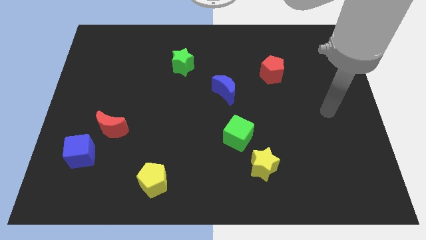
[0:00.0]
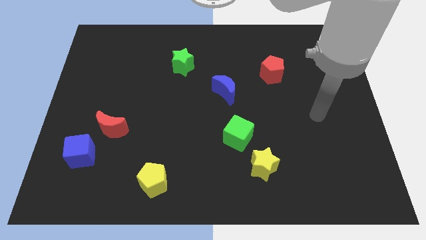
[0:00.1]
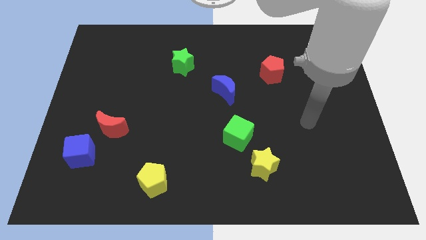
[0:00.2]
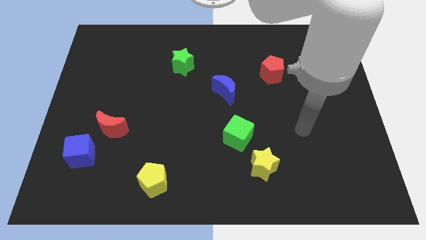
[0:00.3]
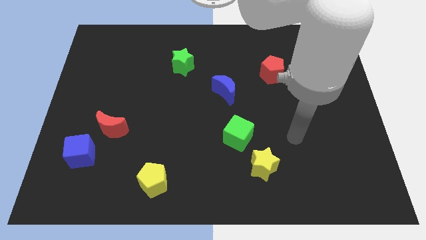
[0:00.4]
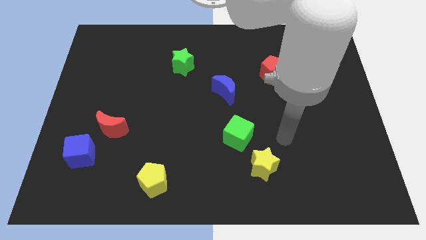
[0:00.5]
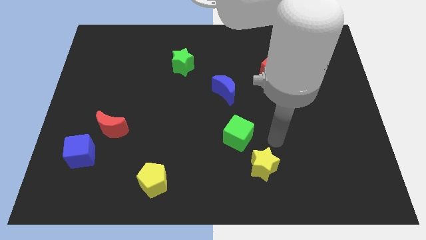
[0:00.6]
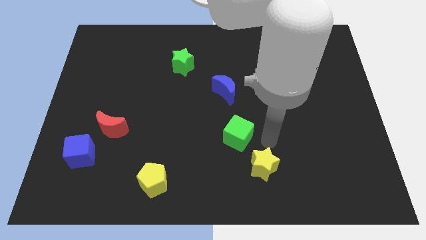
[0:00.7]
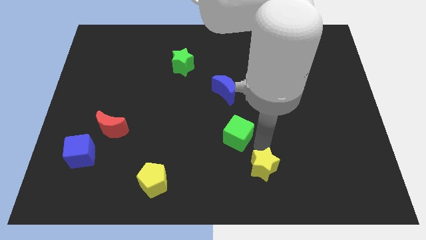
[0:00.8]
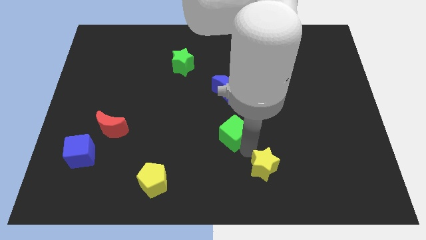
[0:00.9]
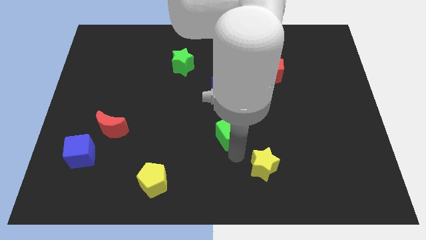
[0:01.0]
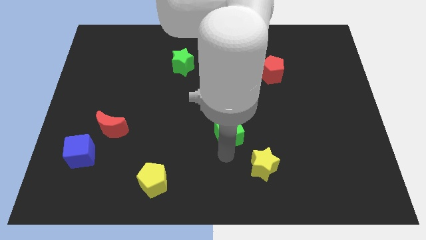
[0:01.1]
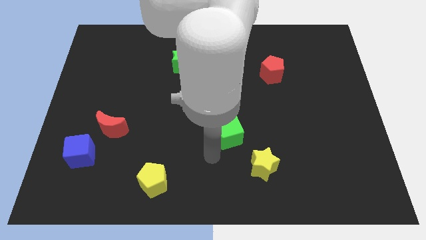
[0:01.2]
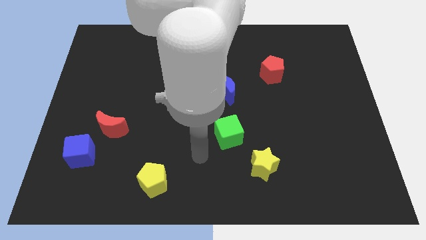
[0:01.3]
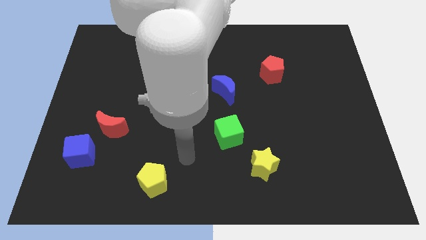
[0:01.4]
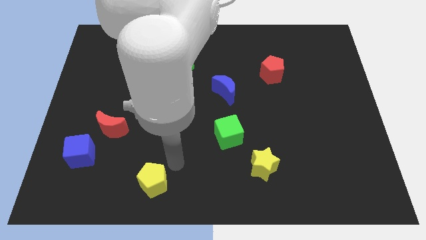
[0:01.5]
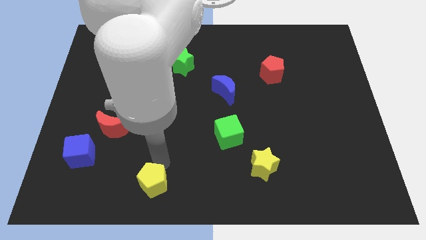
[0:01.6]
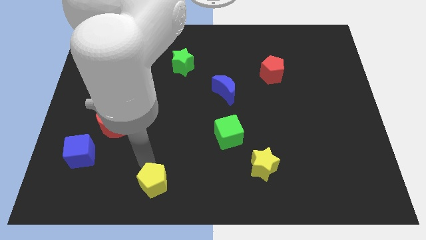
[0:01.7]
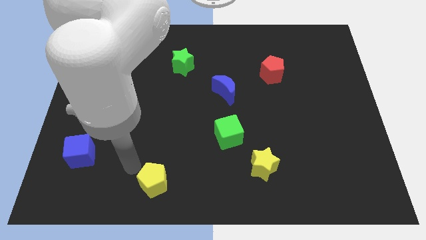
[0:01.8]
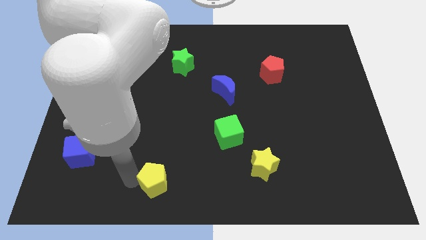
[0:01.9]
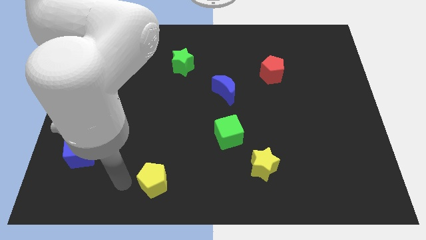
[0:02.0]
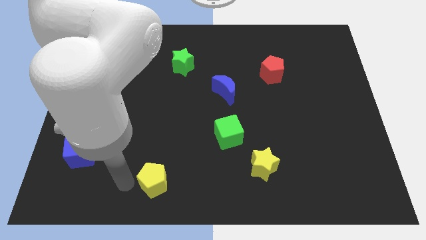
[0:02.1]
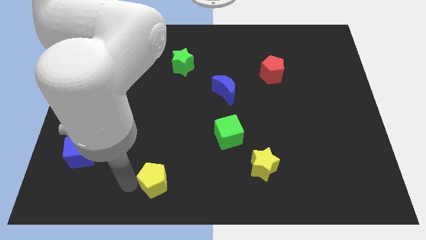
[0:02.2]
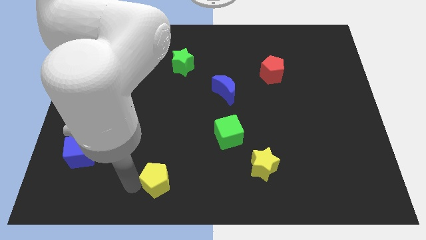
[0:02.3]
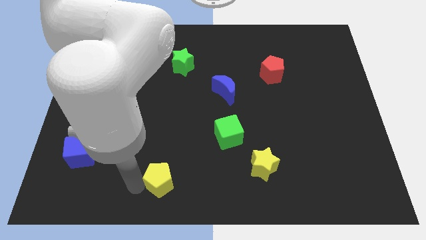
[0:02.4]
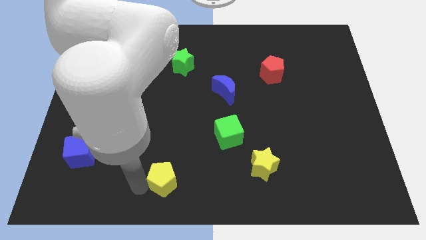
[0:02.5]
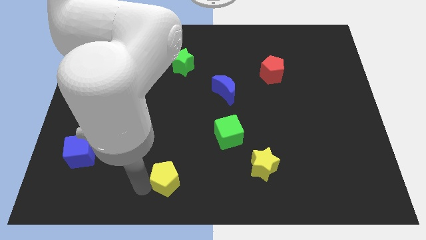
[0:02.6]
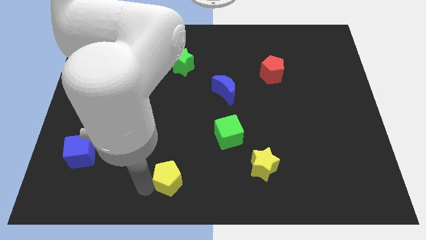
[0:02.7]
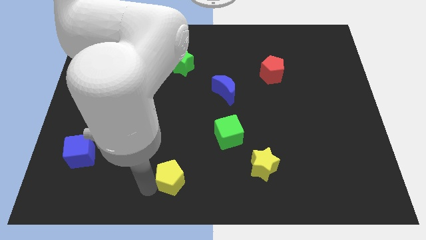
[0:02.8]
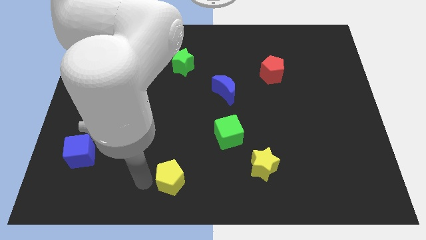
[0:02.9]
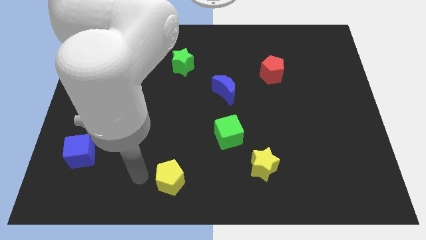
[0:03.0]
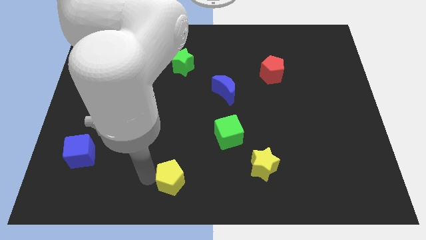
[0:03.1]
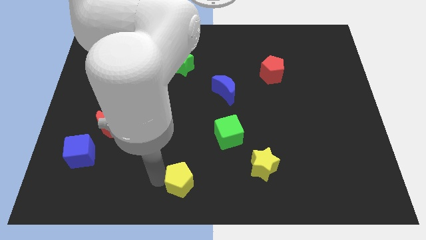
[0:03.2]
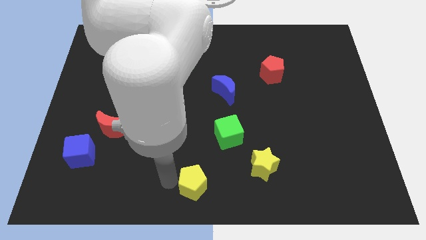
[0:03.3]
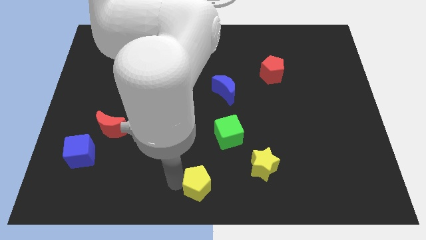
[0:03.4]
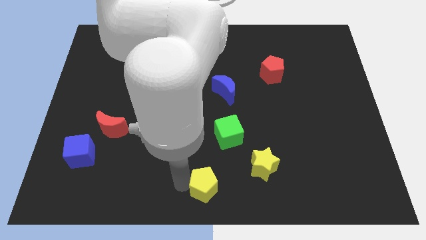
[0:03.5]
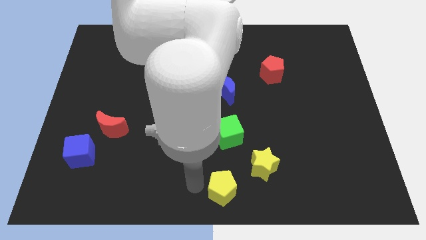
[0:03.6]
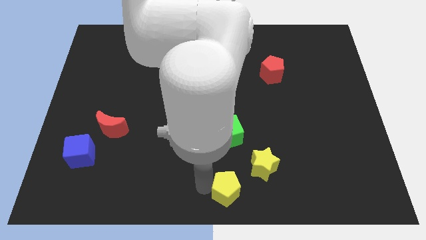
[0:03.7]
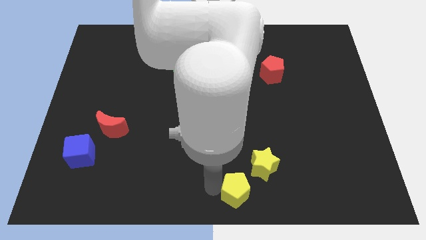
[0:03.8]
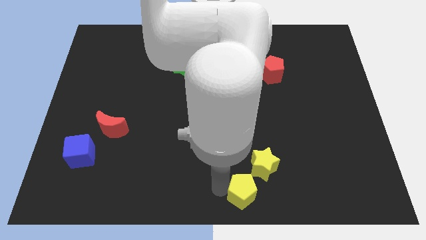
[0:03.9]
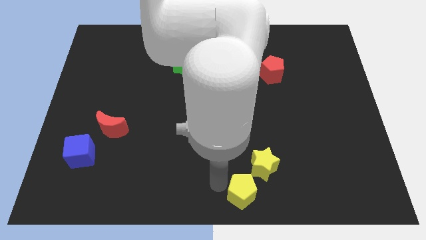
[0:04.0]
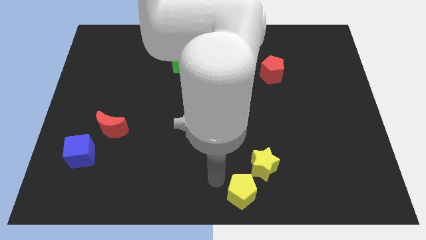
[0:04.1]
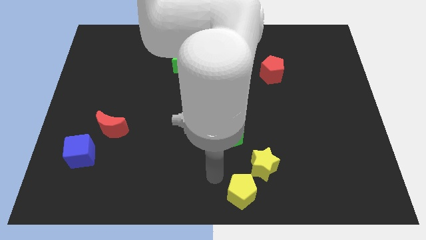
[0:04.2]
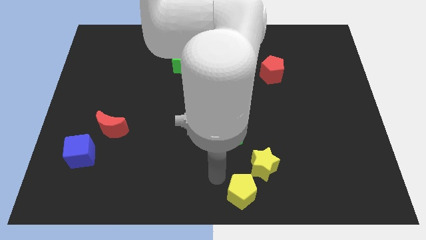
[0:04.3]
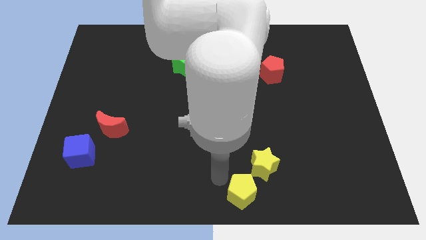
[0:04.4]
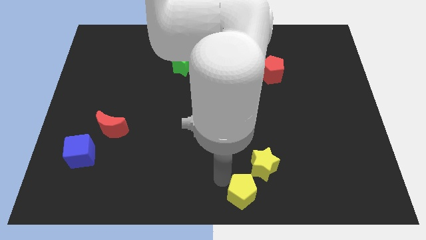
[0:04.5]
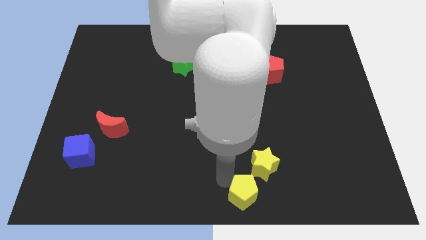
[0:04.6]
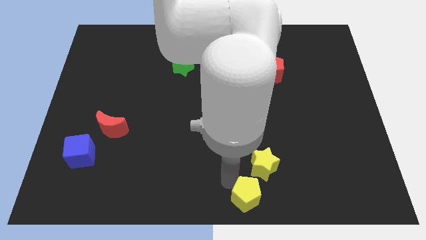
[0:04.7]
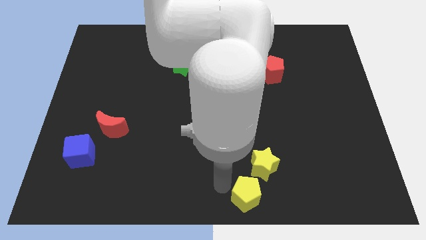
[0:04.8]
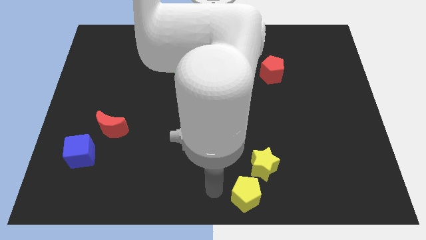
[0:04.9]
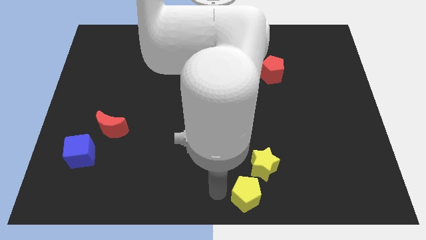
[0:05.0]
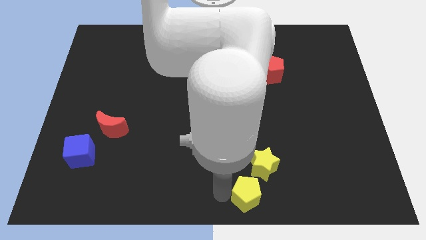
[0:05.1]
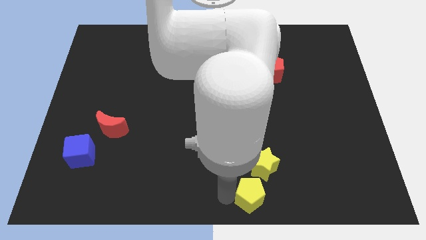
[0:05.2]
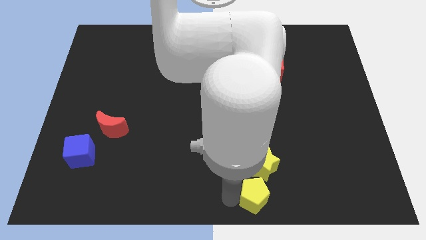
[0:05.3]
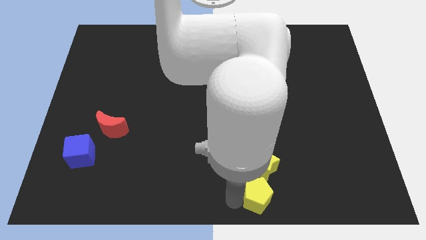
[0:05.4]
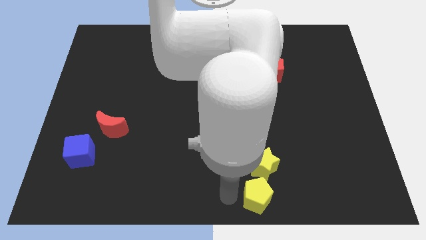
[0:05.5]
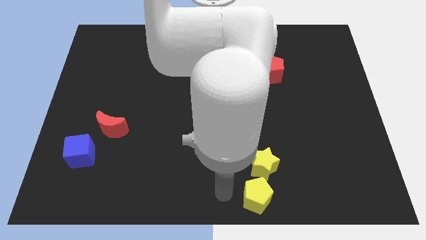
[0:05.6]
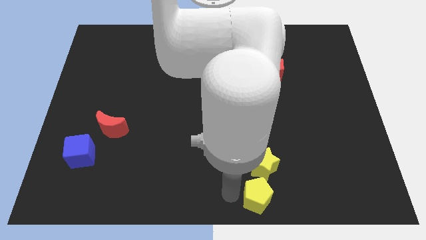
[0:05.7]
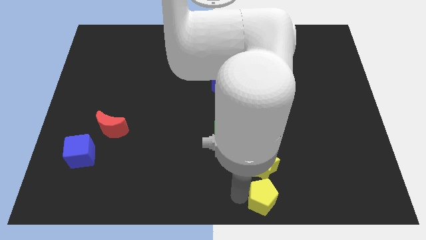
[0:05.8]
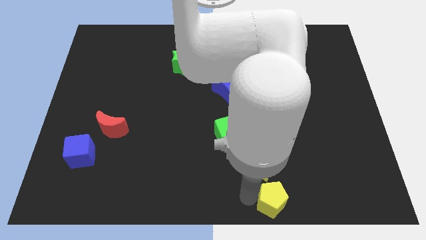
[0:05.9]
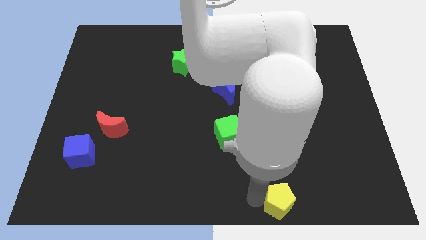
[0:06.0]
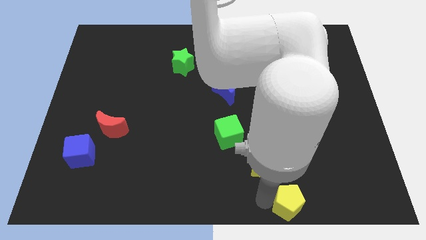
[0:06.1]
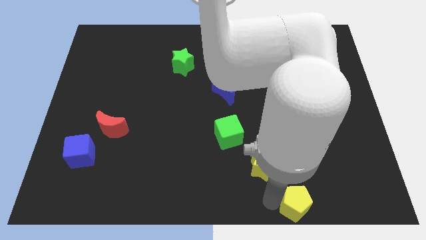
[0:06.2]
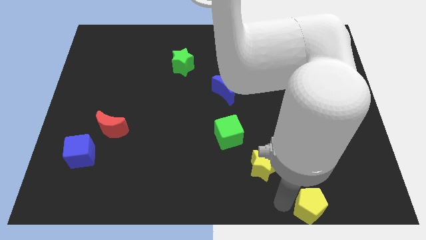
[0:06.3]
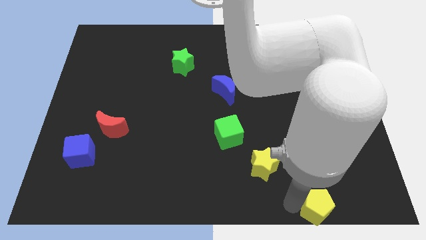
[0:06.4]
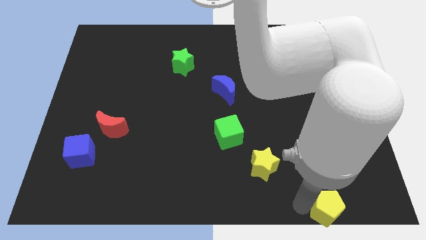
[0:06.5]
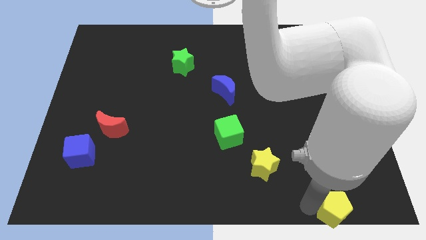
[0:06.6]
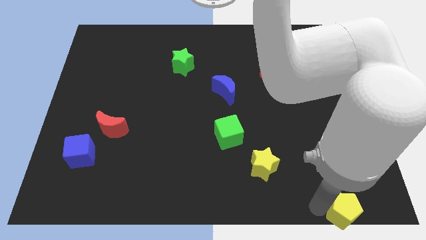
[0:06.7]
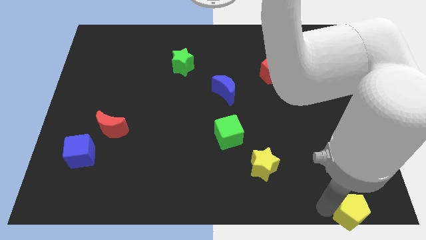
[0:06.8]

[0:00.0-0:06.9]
move the yellow pentagon to the lower right corner
